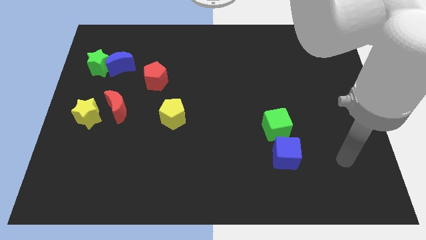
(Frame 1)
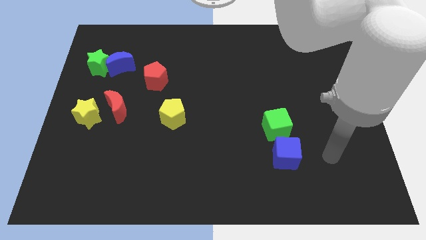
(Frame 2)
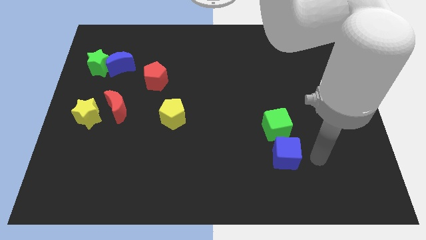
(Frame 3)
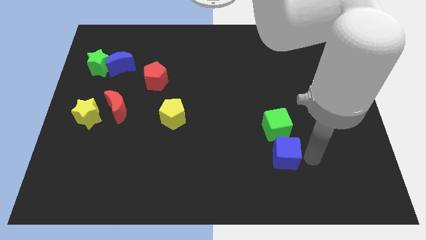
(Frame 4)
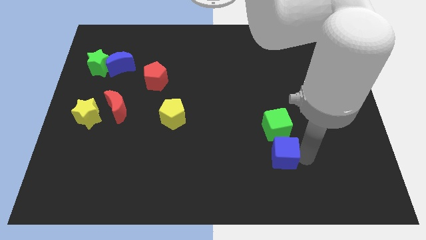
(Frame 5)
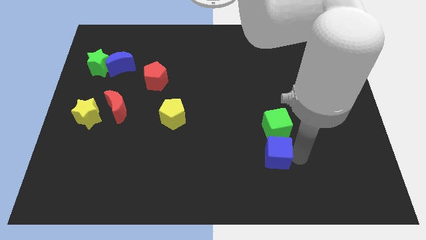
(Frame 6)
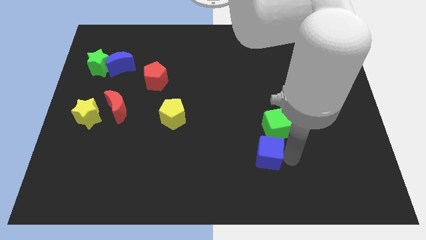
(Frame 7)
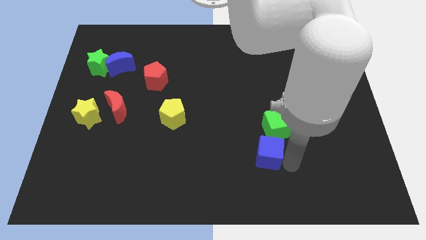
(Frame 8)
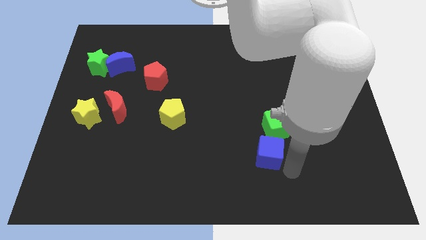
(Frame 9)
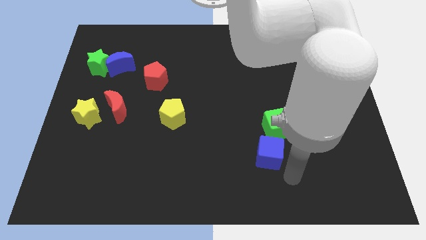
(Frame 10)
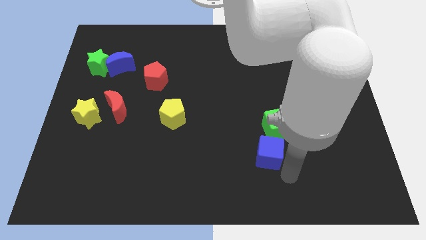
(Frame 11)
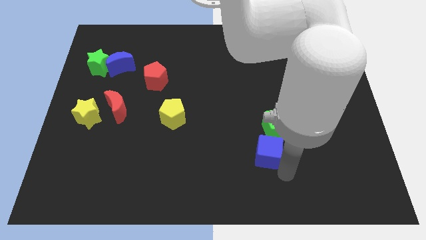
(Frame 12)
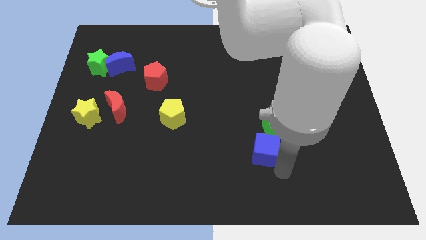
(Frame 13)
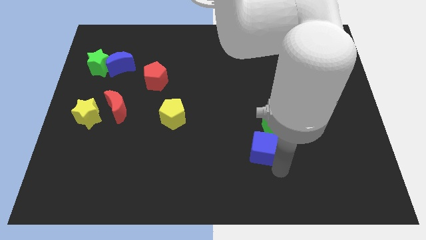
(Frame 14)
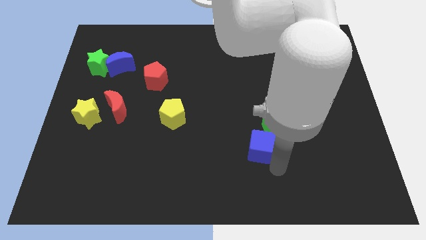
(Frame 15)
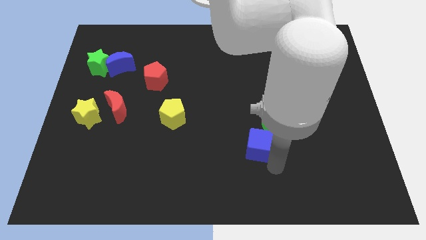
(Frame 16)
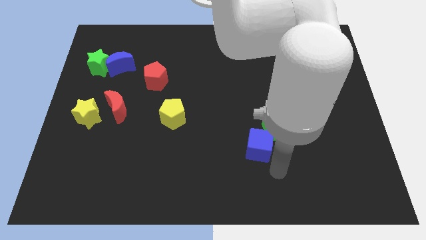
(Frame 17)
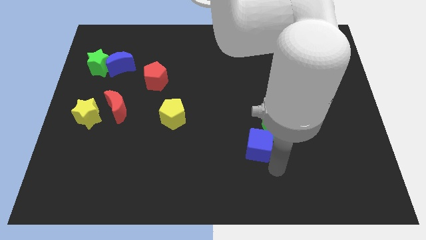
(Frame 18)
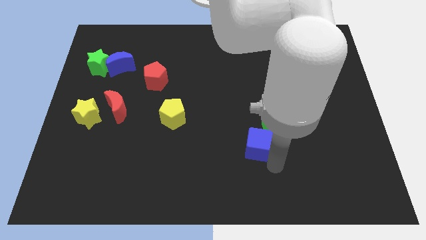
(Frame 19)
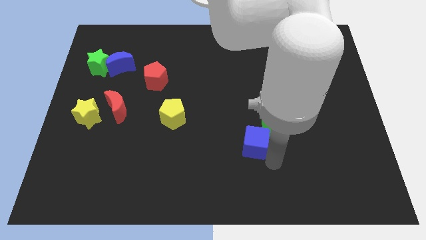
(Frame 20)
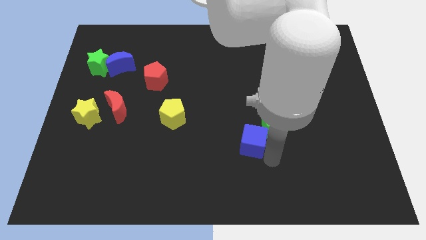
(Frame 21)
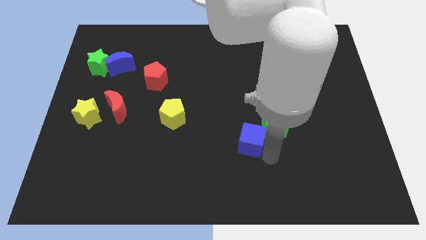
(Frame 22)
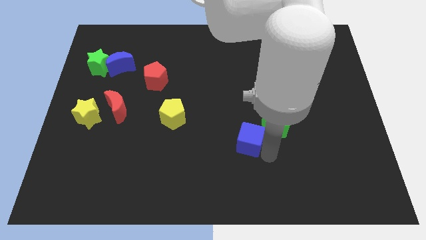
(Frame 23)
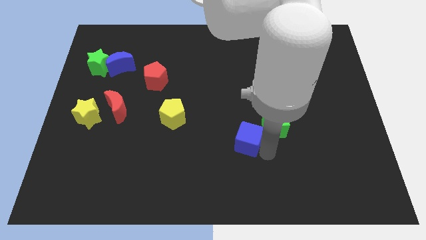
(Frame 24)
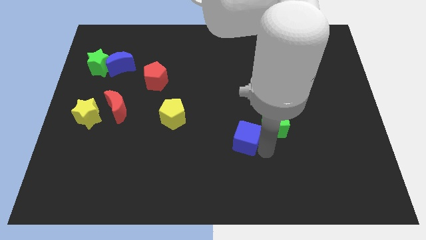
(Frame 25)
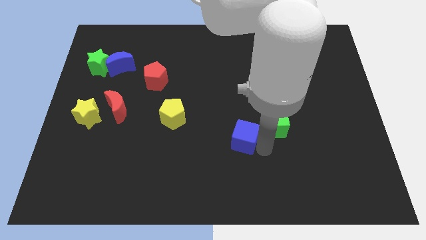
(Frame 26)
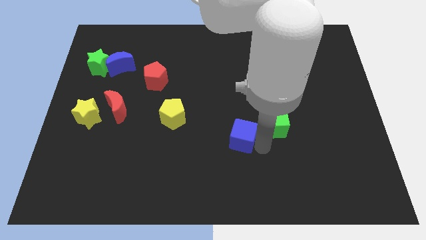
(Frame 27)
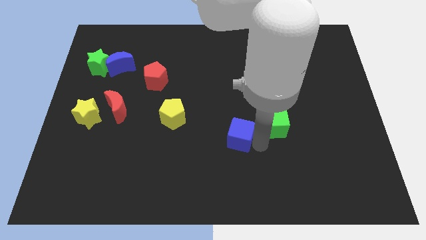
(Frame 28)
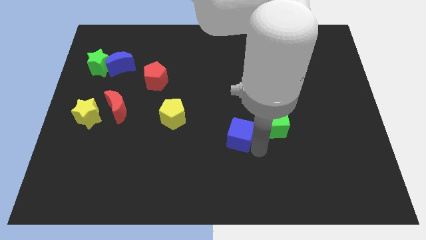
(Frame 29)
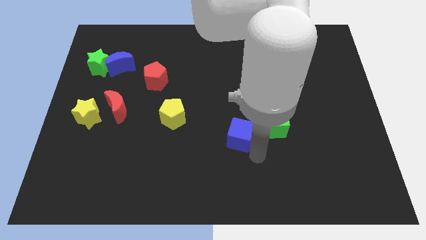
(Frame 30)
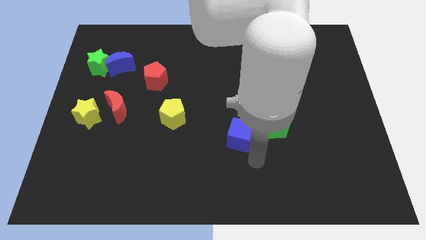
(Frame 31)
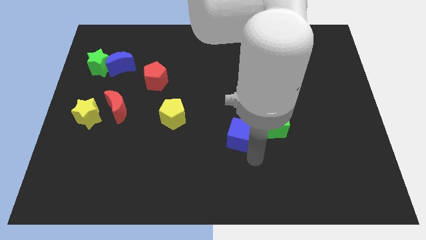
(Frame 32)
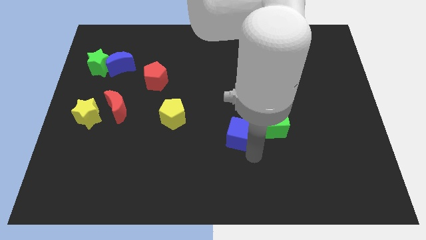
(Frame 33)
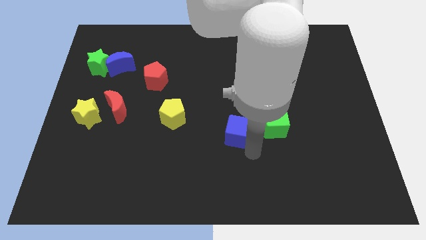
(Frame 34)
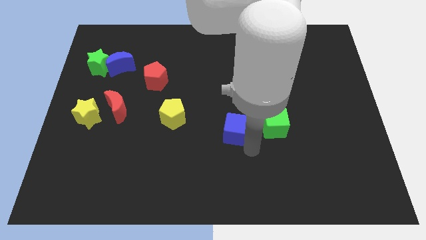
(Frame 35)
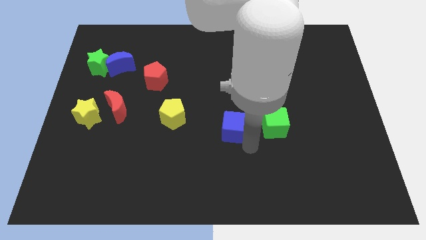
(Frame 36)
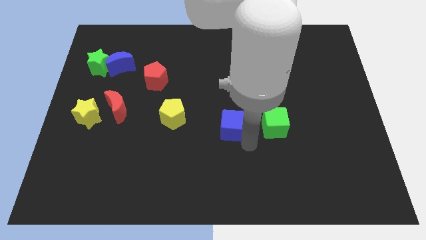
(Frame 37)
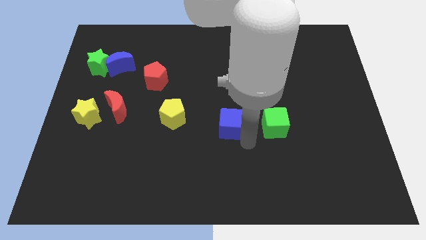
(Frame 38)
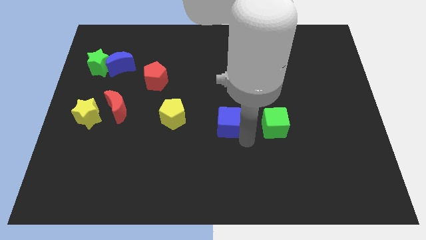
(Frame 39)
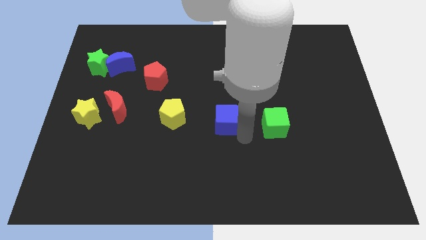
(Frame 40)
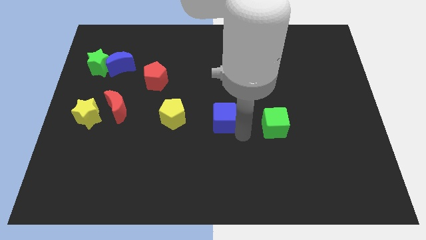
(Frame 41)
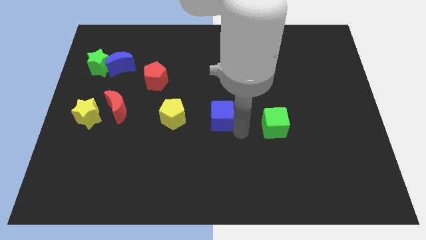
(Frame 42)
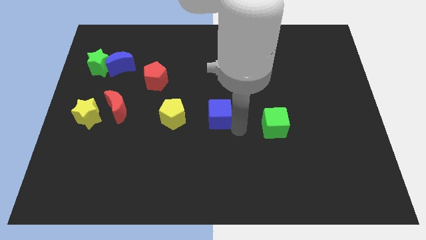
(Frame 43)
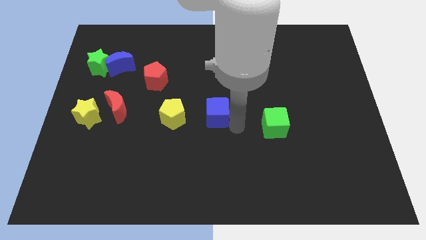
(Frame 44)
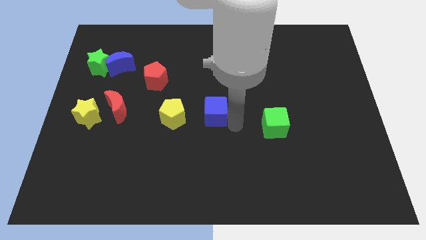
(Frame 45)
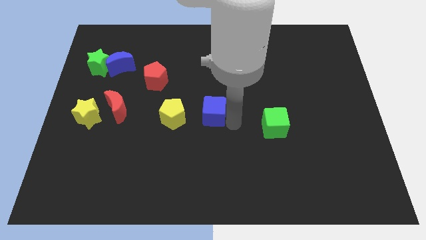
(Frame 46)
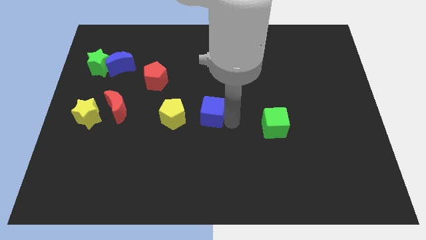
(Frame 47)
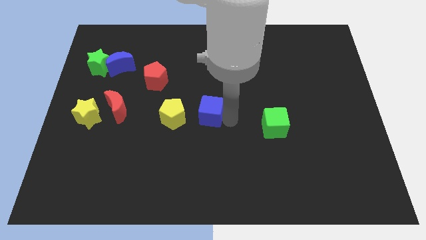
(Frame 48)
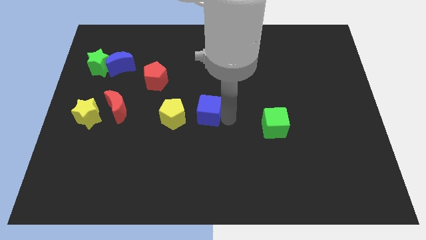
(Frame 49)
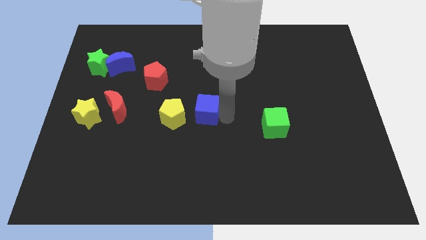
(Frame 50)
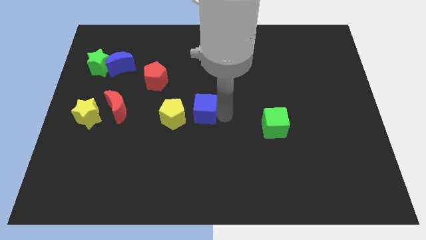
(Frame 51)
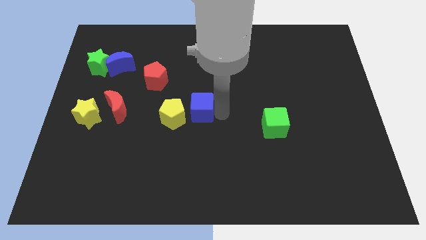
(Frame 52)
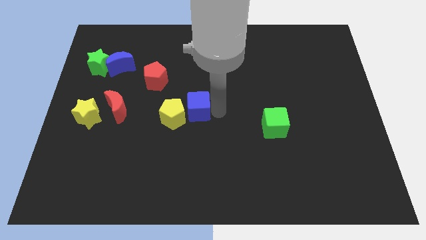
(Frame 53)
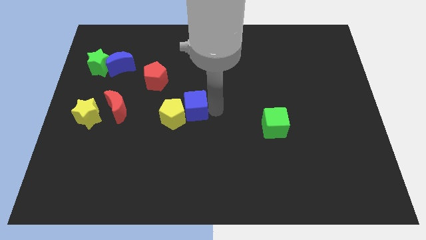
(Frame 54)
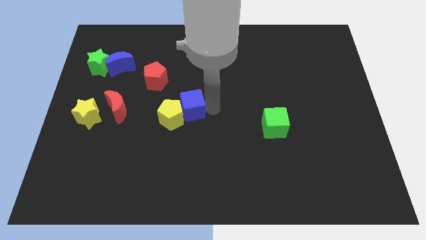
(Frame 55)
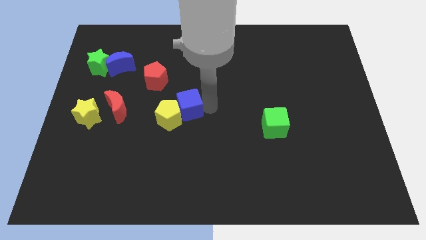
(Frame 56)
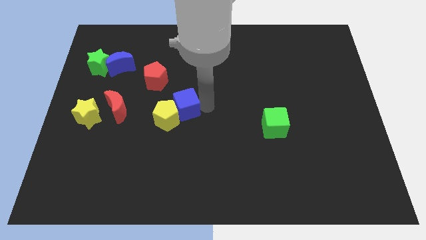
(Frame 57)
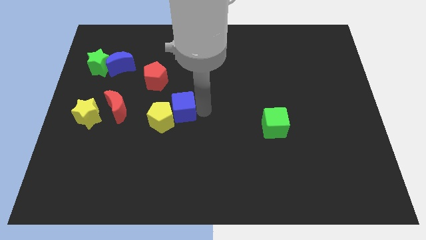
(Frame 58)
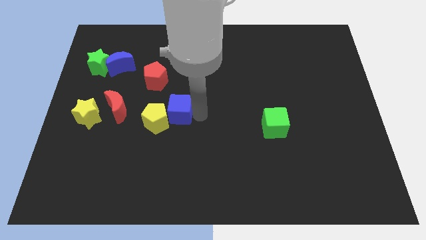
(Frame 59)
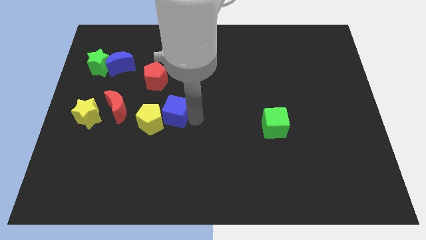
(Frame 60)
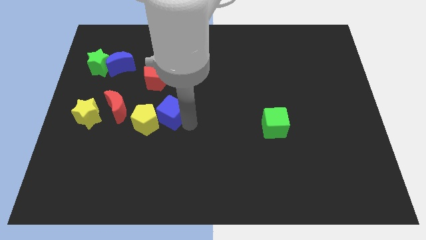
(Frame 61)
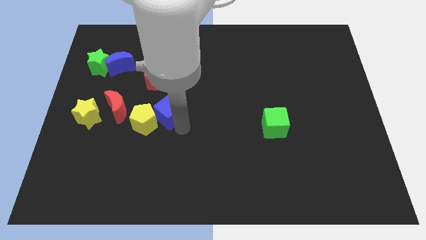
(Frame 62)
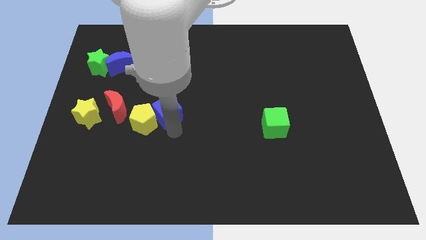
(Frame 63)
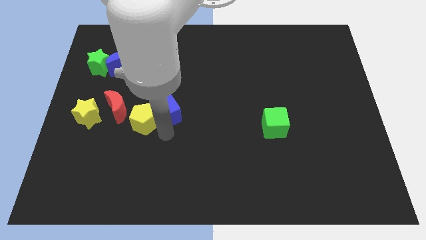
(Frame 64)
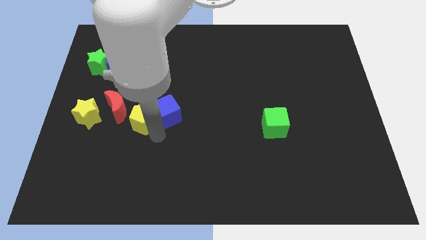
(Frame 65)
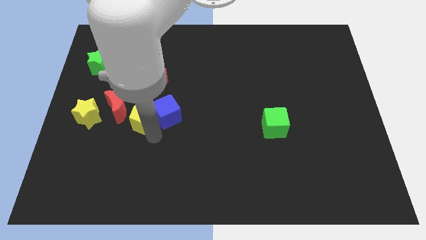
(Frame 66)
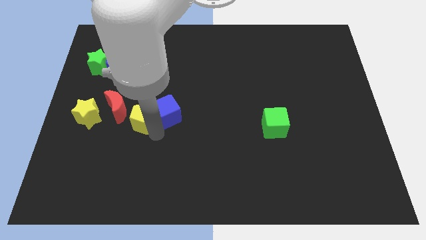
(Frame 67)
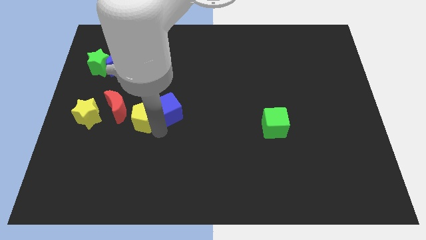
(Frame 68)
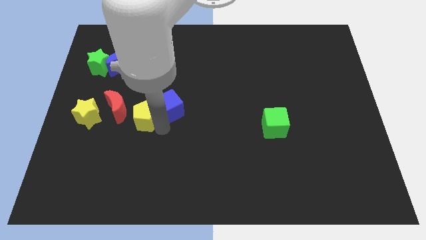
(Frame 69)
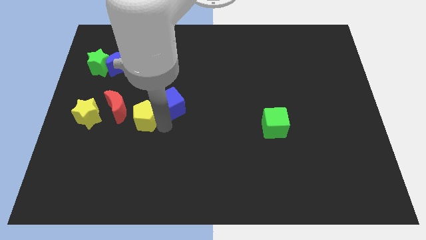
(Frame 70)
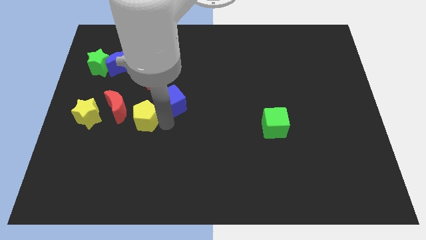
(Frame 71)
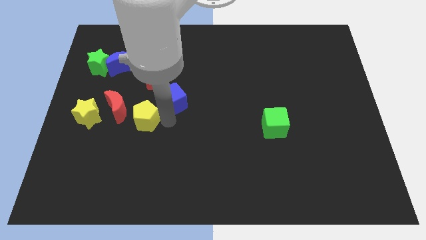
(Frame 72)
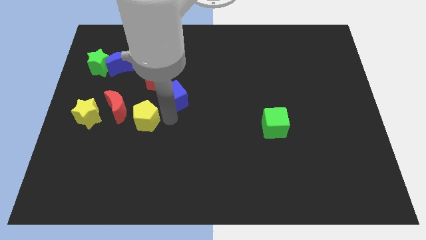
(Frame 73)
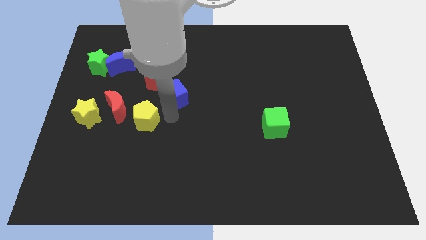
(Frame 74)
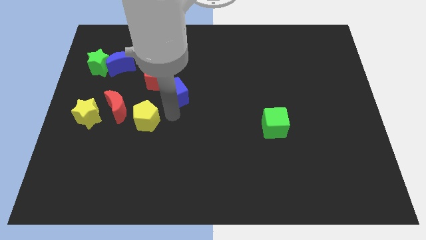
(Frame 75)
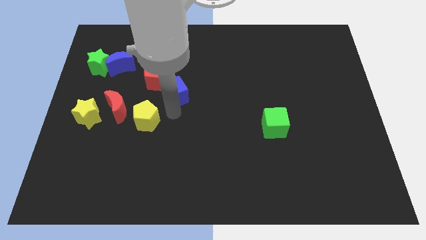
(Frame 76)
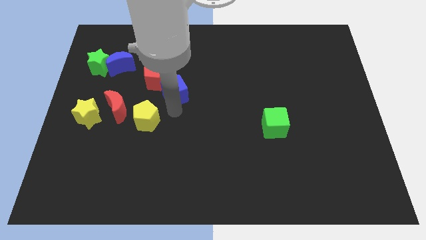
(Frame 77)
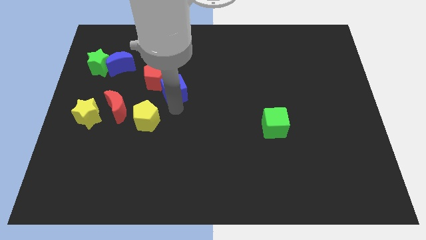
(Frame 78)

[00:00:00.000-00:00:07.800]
push the blue cube next to the red pentagon
